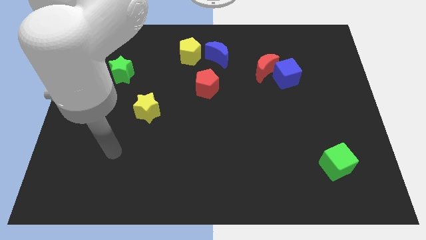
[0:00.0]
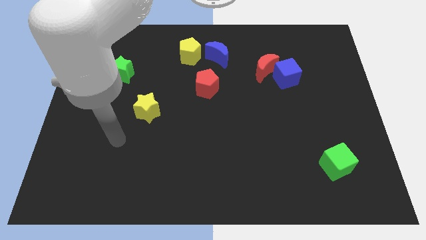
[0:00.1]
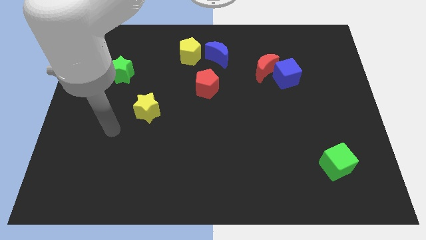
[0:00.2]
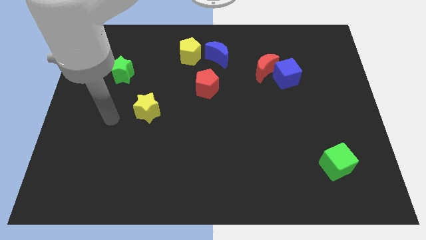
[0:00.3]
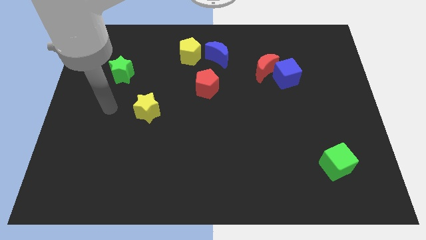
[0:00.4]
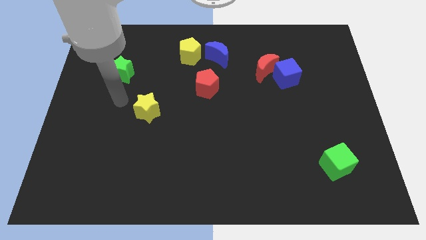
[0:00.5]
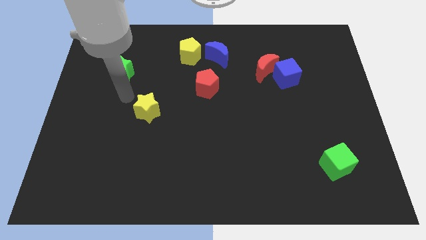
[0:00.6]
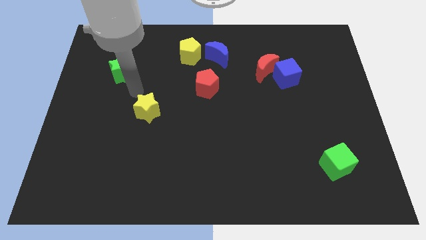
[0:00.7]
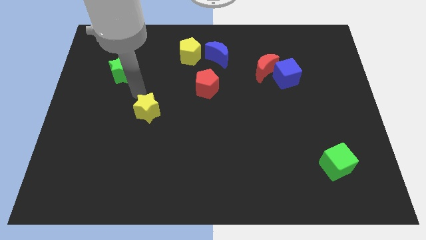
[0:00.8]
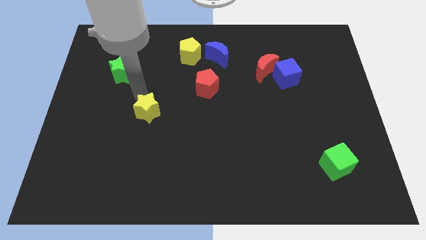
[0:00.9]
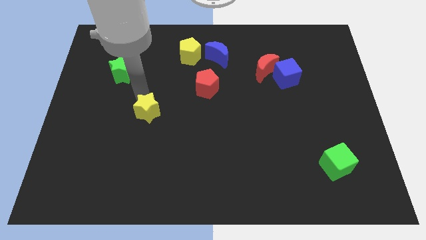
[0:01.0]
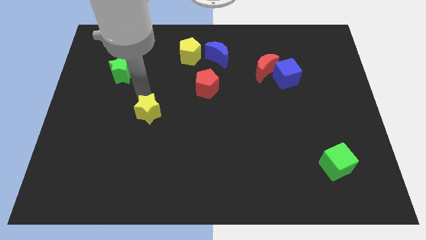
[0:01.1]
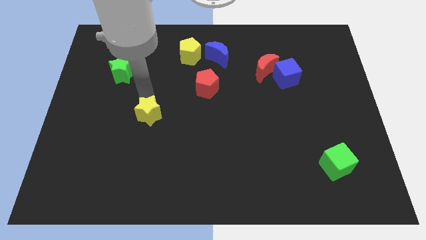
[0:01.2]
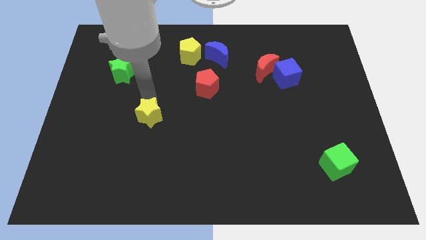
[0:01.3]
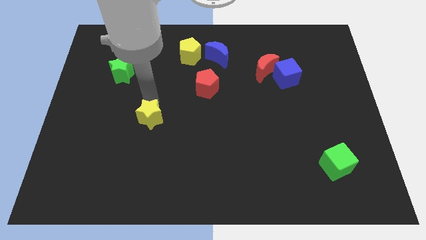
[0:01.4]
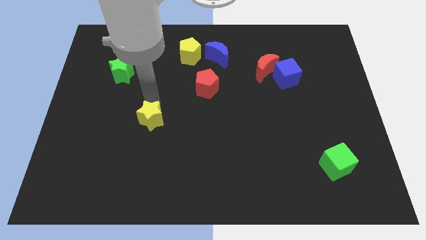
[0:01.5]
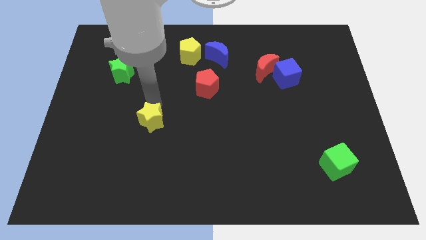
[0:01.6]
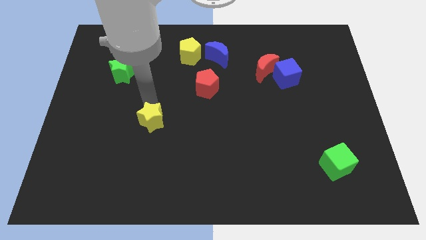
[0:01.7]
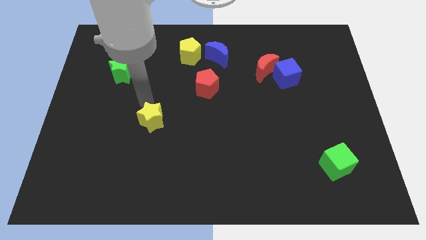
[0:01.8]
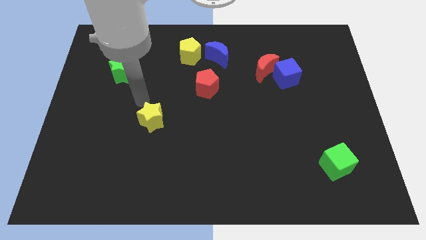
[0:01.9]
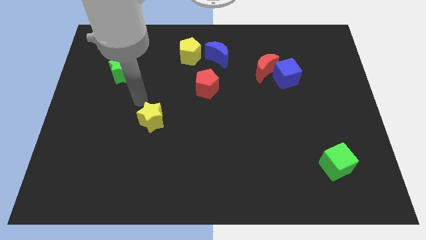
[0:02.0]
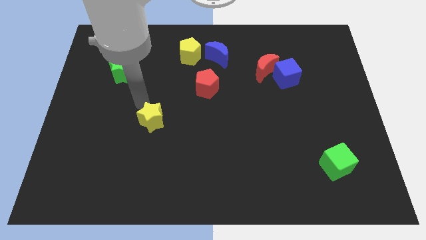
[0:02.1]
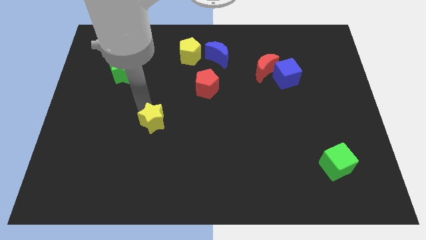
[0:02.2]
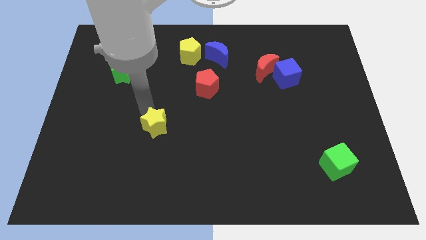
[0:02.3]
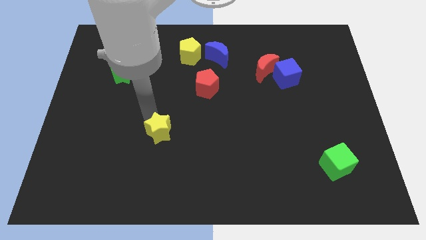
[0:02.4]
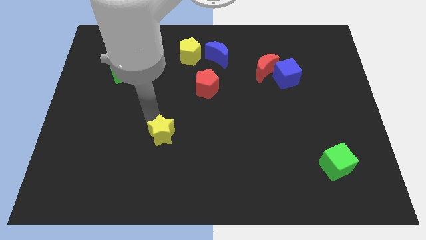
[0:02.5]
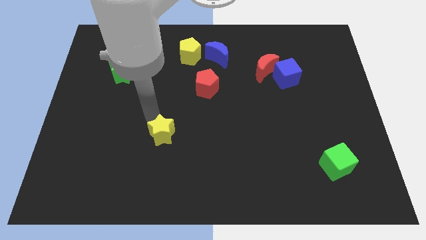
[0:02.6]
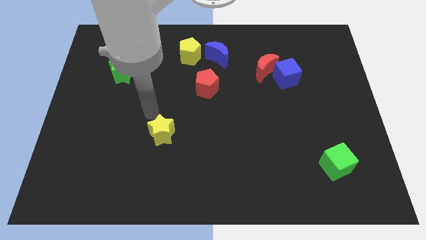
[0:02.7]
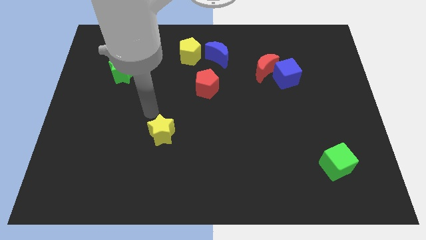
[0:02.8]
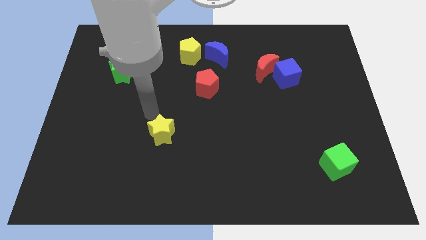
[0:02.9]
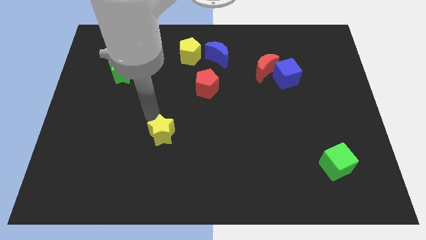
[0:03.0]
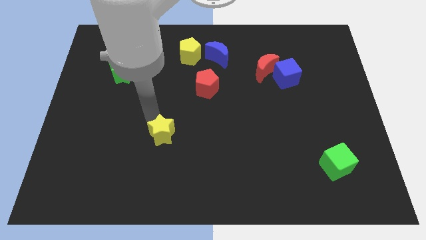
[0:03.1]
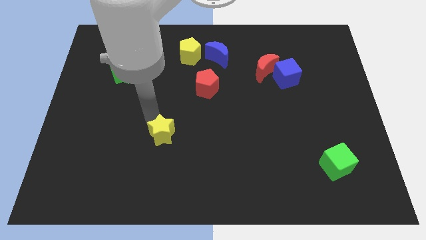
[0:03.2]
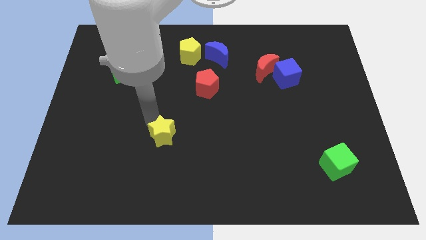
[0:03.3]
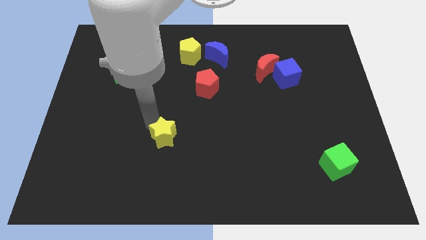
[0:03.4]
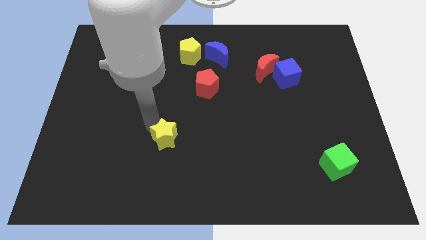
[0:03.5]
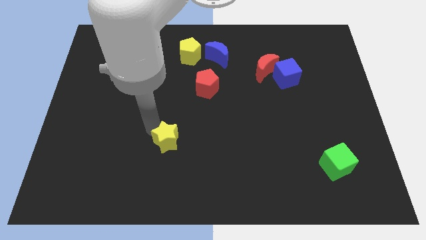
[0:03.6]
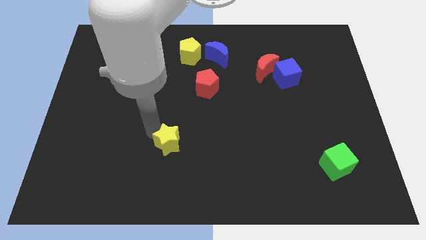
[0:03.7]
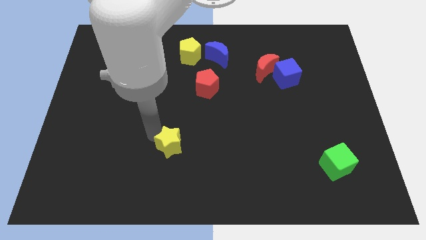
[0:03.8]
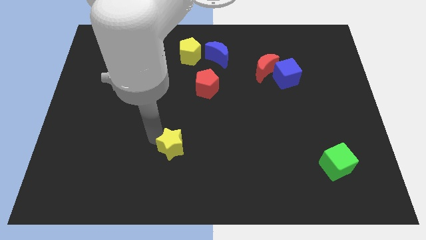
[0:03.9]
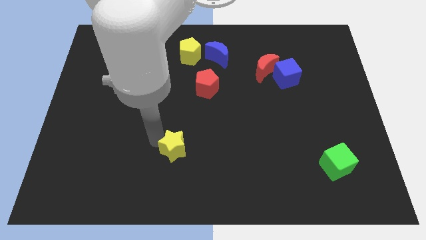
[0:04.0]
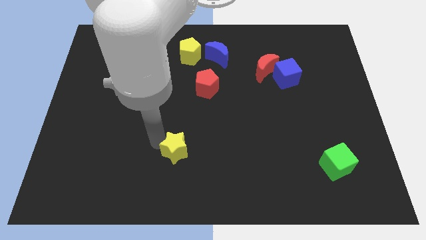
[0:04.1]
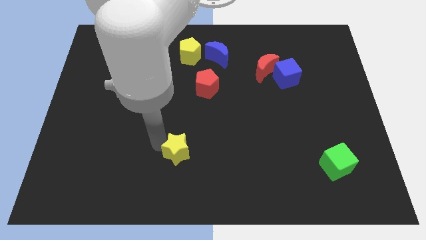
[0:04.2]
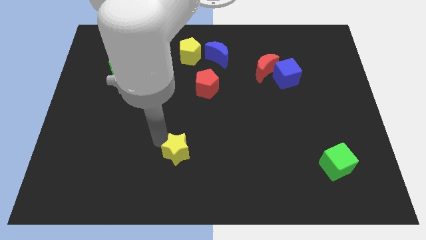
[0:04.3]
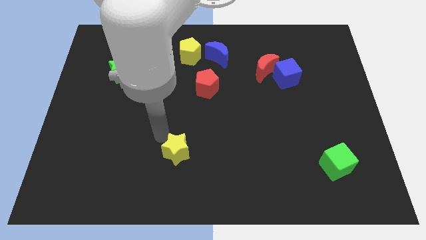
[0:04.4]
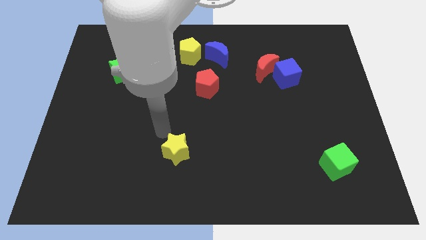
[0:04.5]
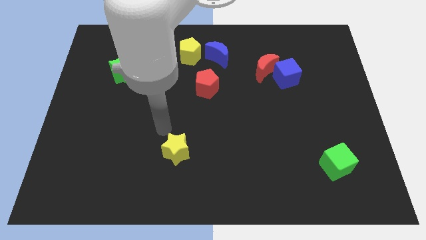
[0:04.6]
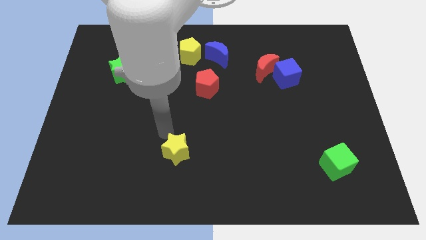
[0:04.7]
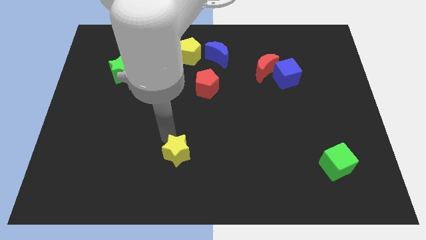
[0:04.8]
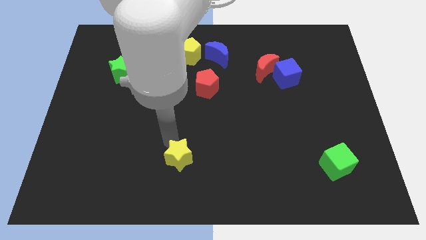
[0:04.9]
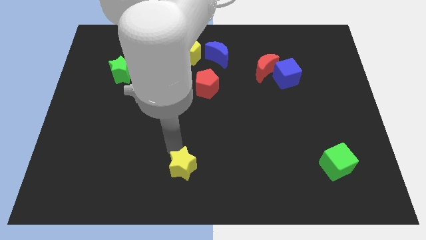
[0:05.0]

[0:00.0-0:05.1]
push the yellow star to the bottom side
